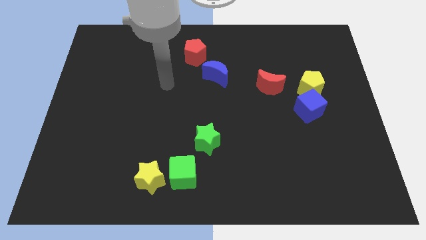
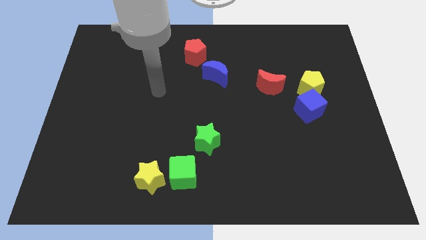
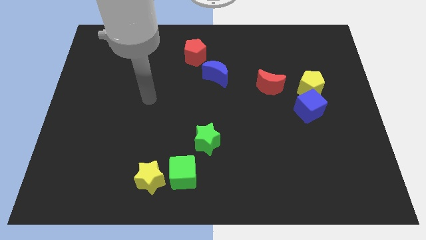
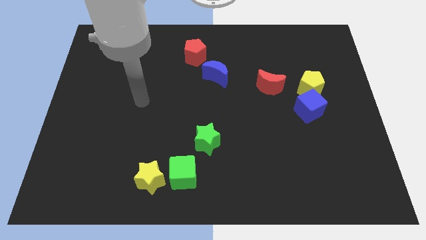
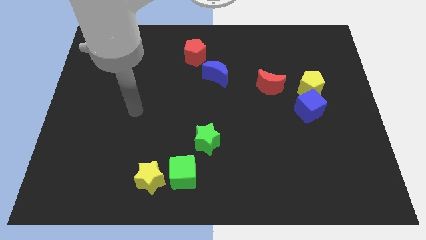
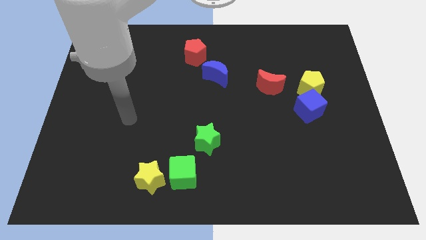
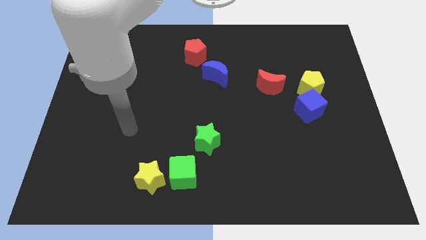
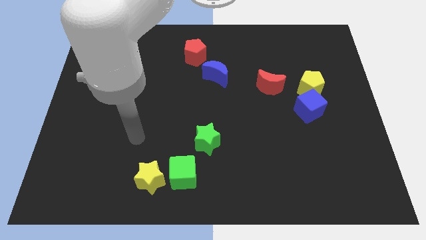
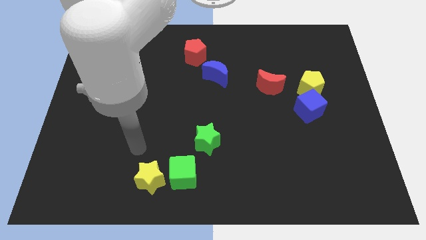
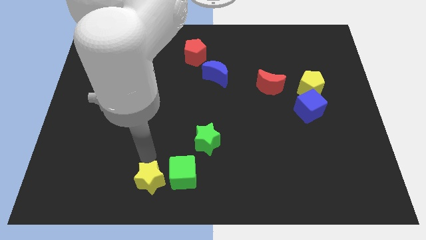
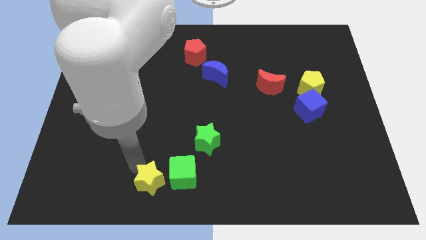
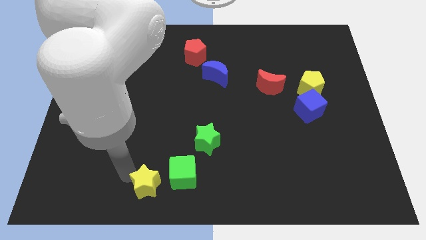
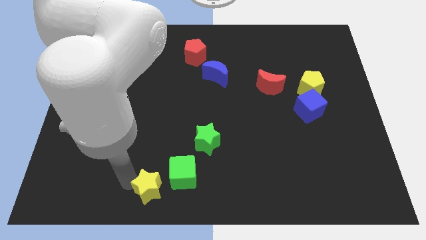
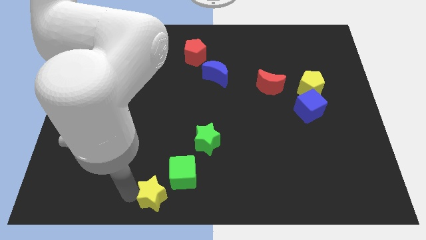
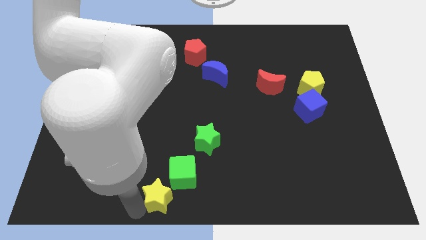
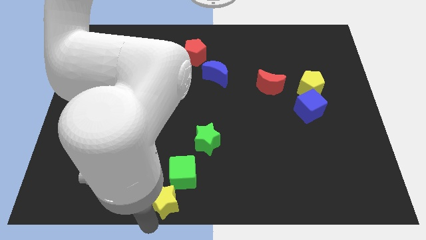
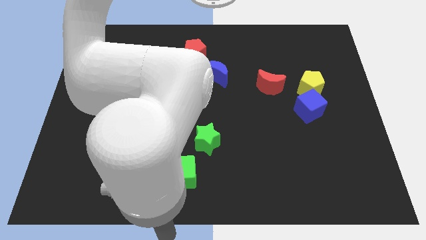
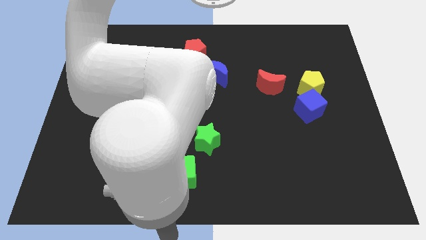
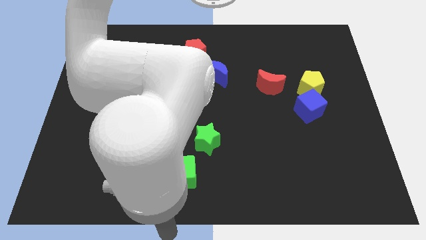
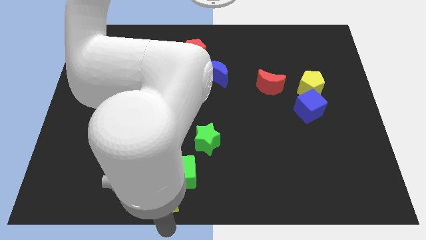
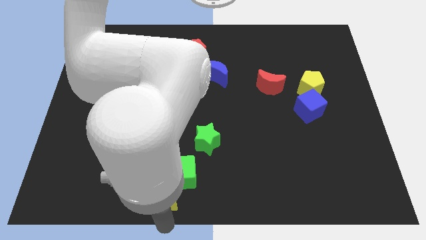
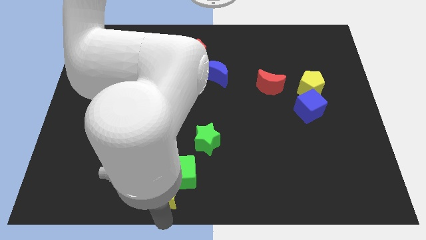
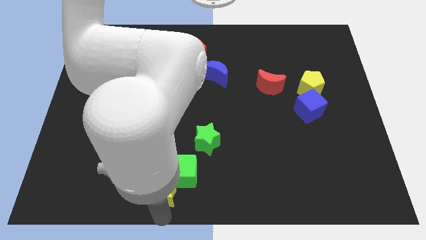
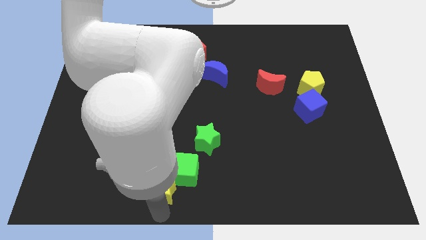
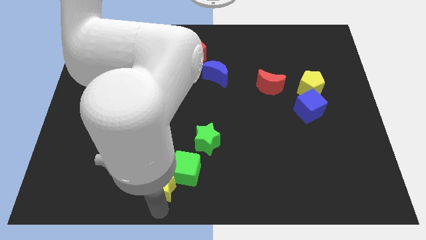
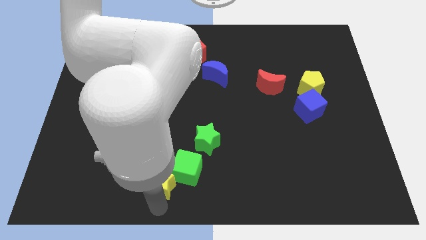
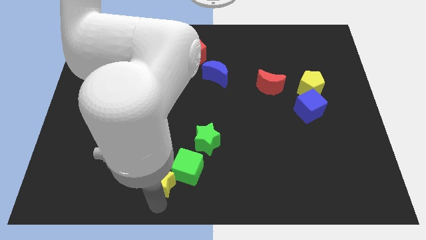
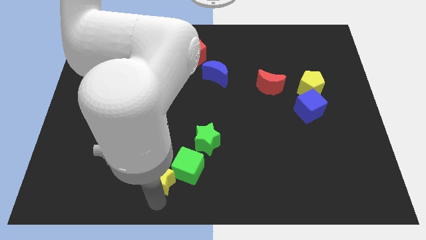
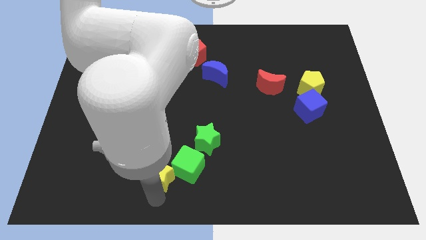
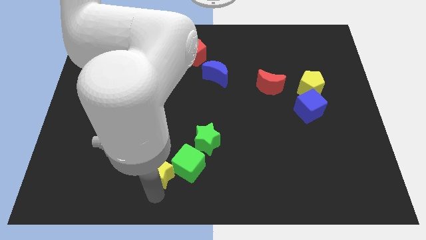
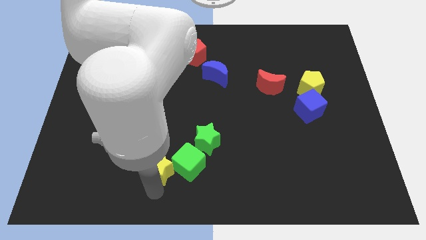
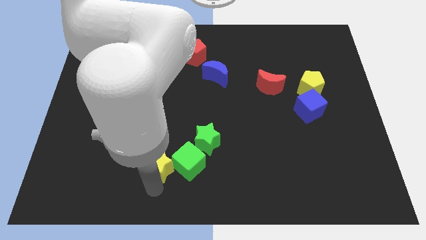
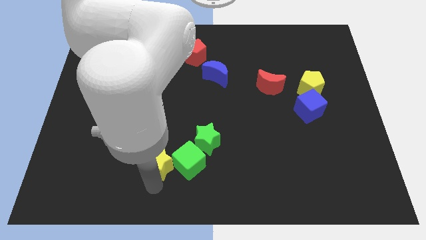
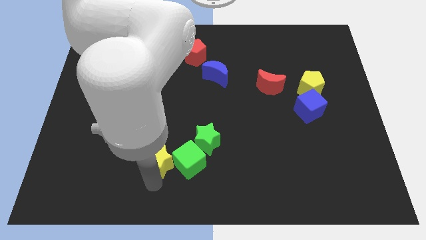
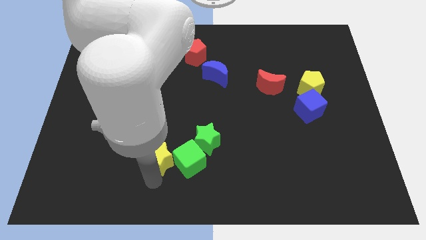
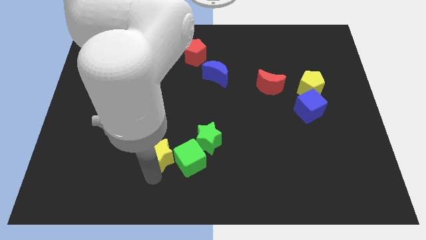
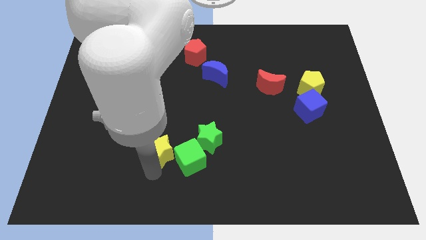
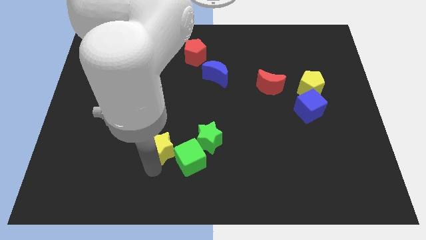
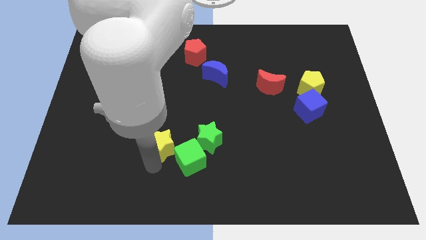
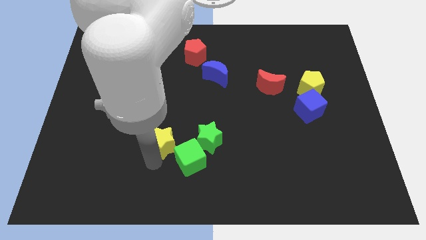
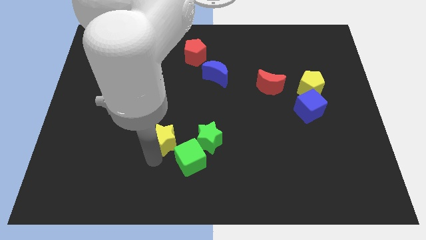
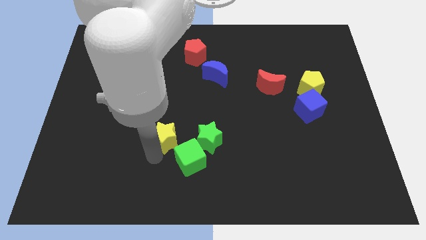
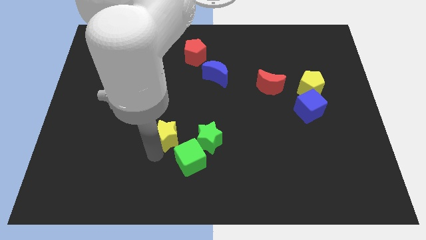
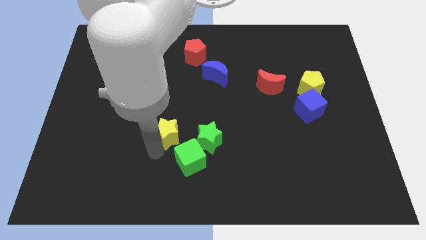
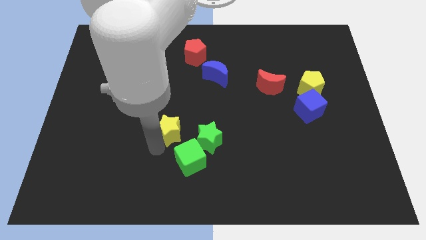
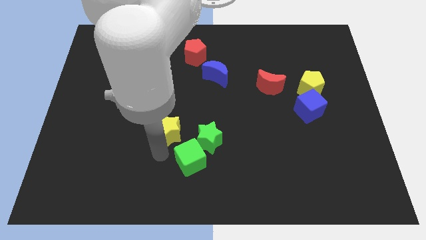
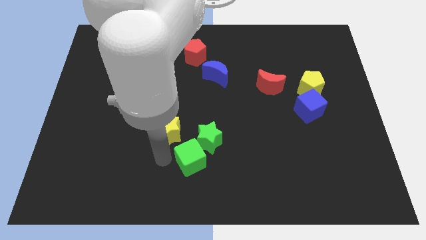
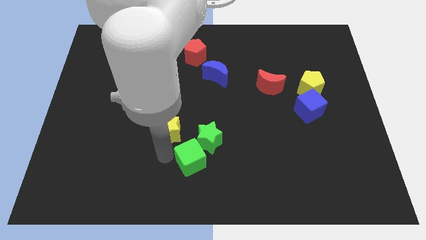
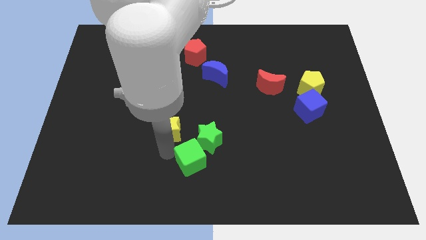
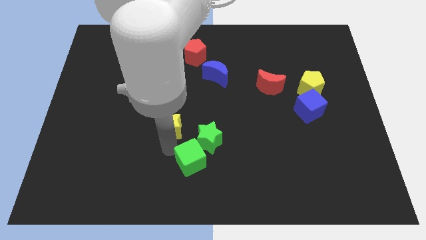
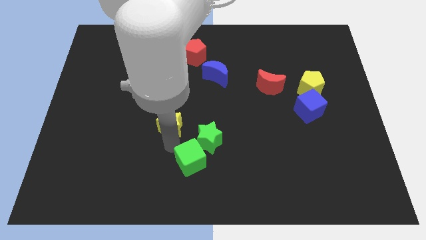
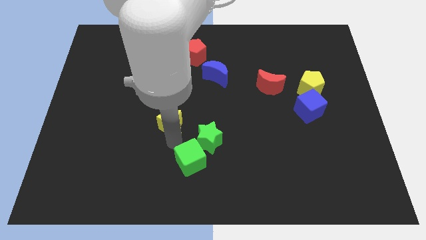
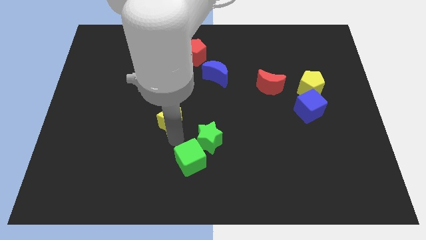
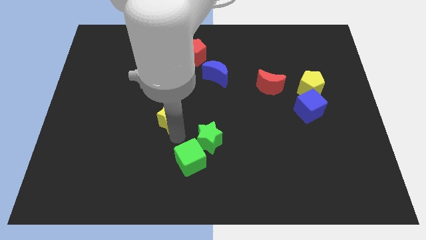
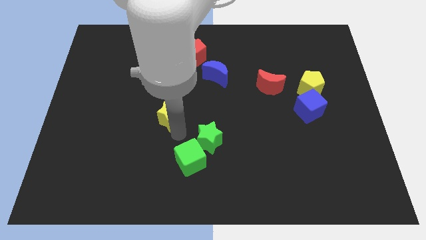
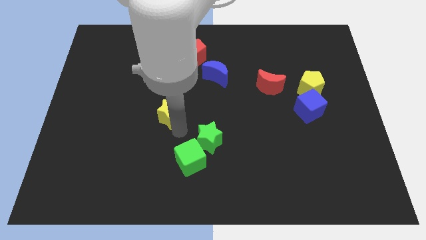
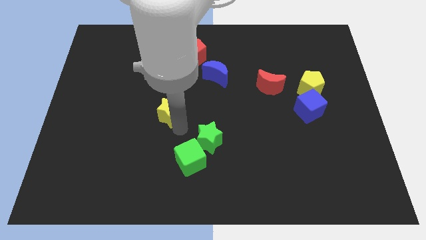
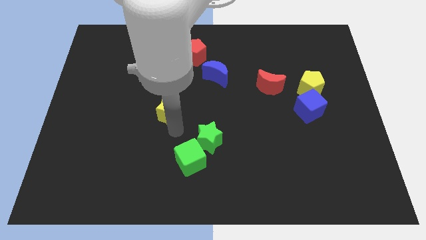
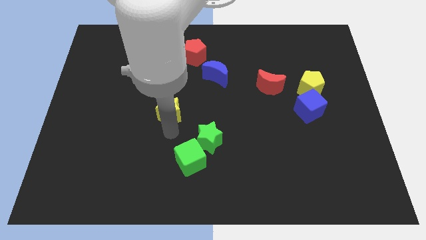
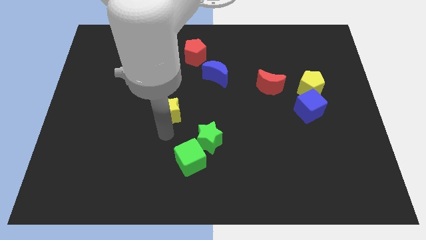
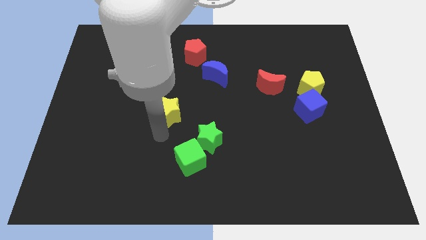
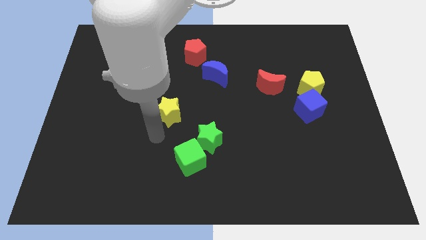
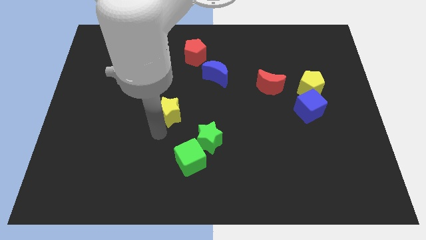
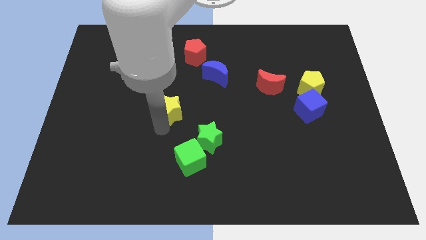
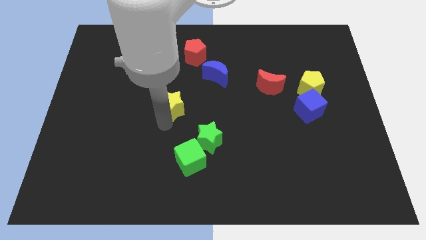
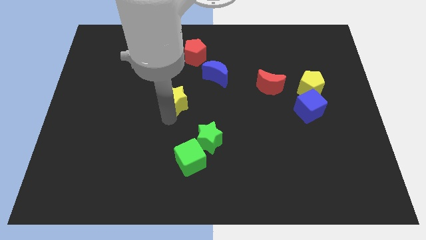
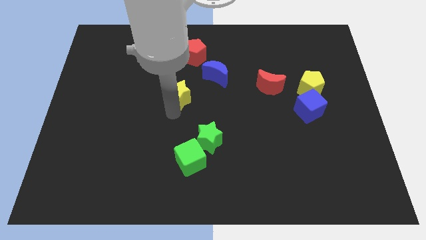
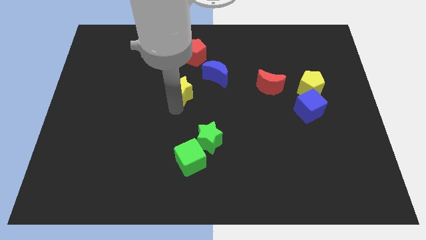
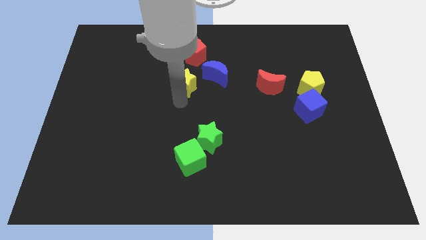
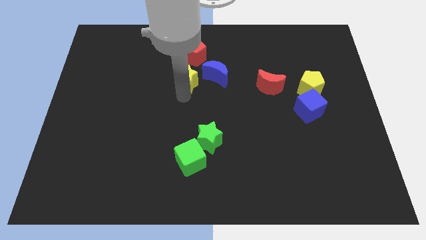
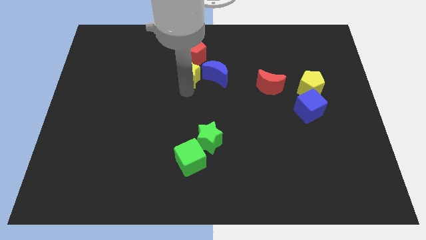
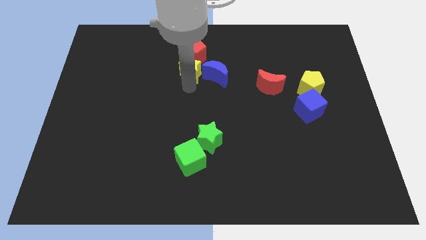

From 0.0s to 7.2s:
push the yellow star towards the red pentagon
